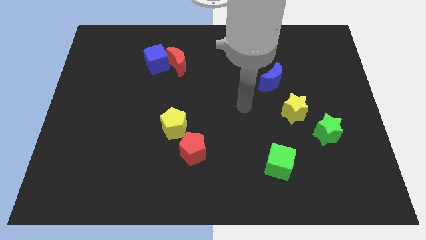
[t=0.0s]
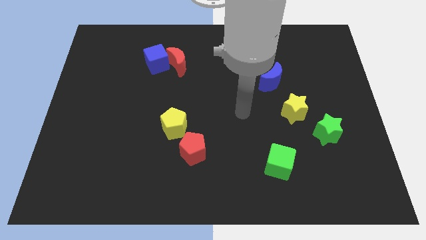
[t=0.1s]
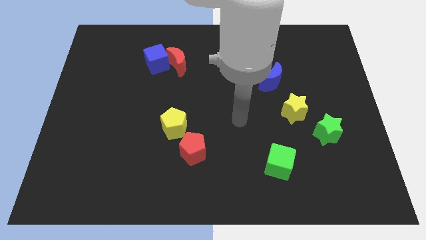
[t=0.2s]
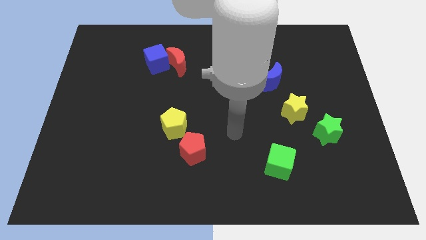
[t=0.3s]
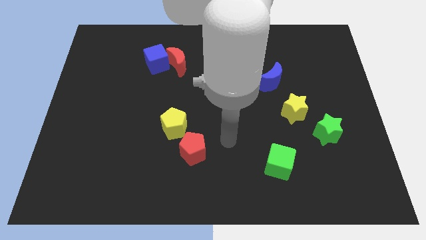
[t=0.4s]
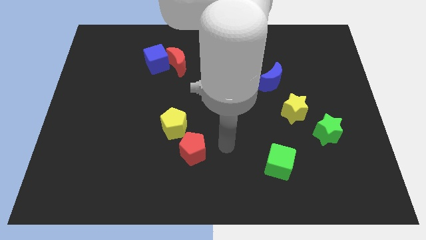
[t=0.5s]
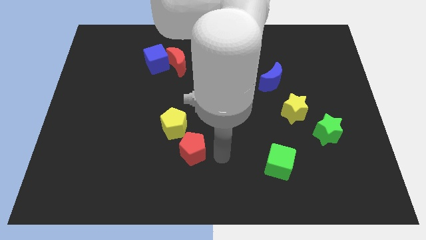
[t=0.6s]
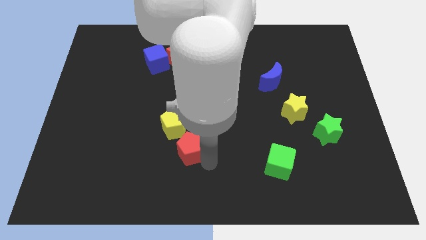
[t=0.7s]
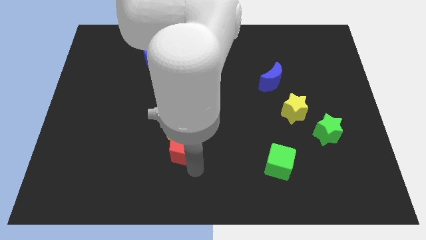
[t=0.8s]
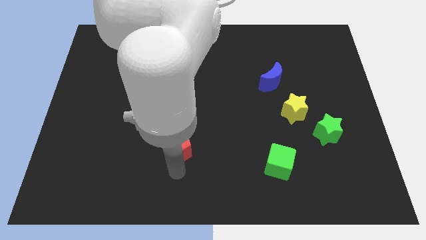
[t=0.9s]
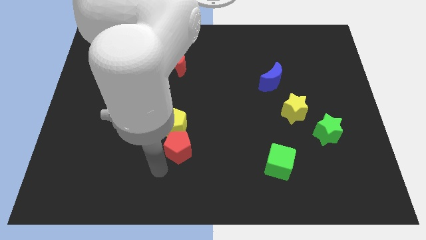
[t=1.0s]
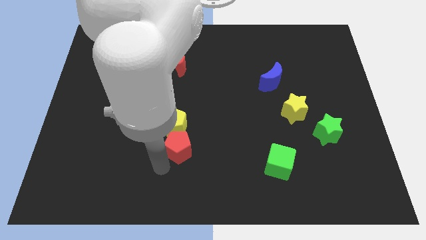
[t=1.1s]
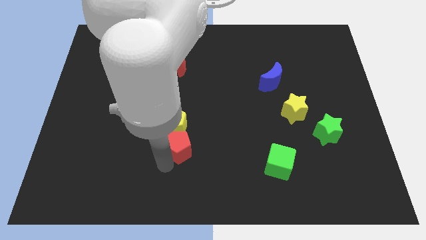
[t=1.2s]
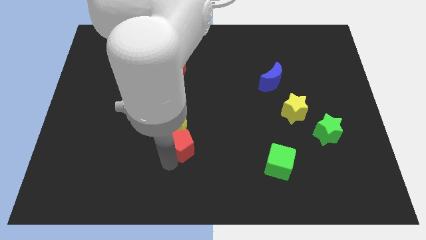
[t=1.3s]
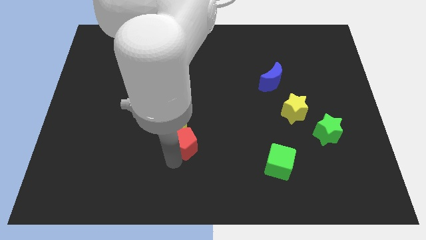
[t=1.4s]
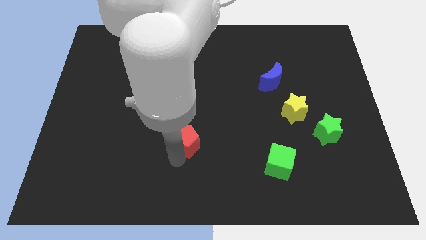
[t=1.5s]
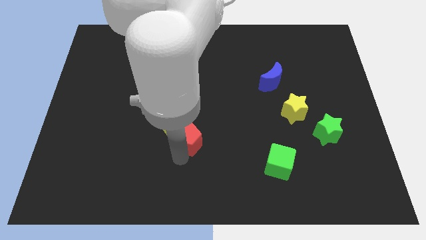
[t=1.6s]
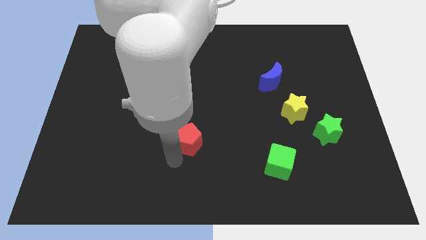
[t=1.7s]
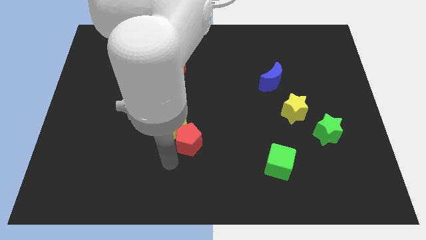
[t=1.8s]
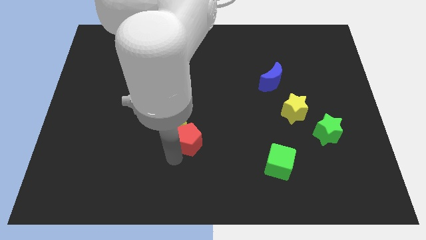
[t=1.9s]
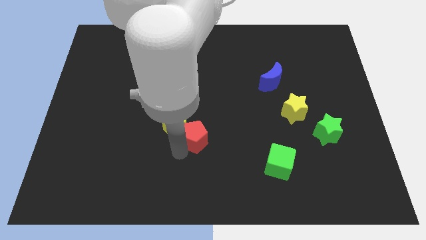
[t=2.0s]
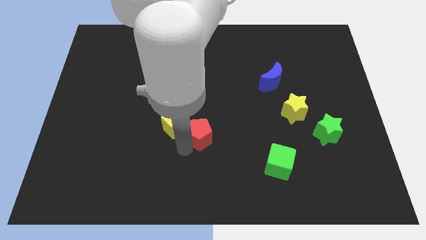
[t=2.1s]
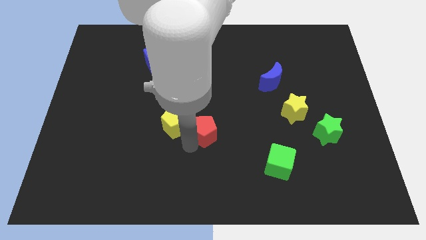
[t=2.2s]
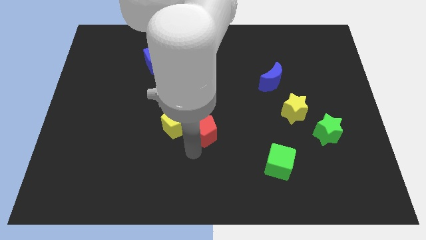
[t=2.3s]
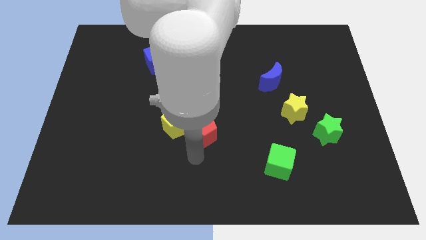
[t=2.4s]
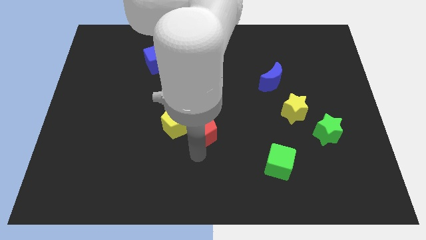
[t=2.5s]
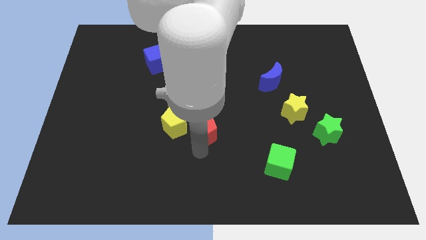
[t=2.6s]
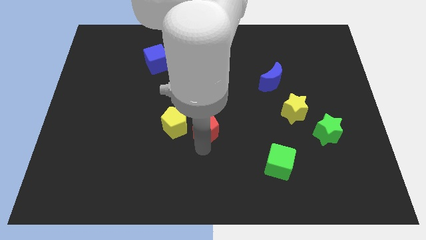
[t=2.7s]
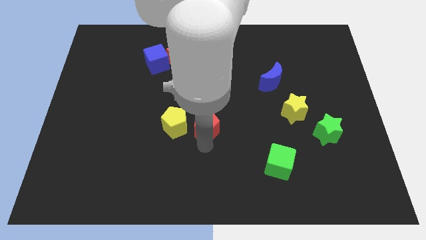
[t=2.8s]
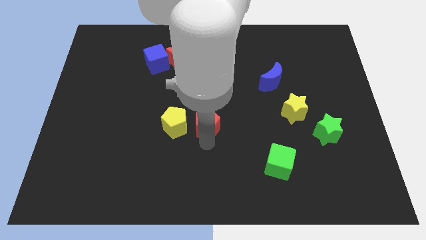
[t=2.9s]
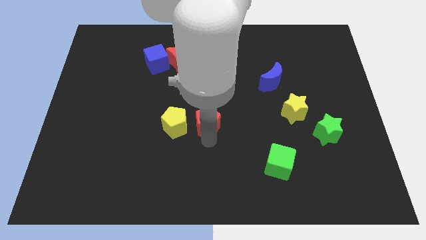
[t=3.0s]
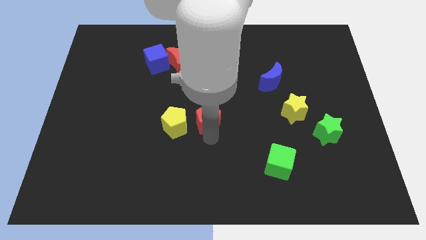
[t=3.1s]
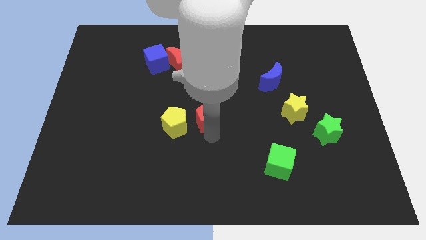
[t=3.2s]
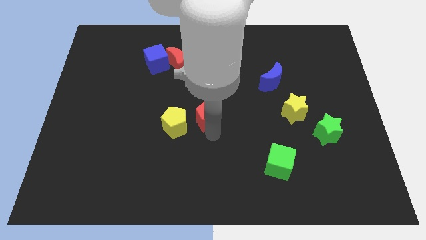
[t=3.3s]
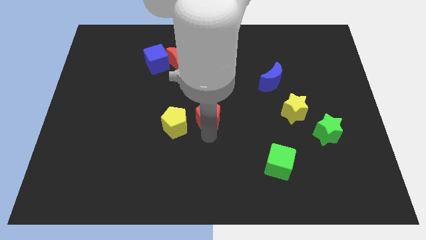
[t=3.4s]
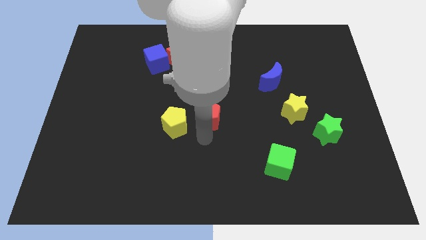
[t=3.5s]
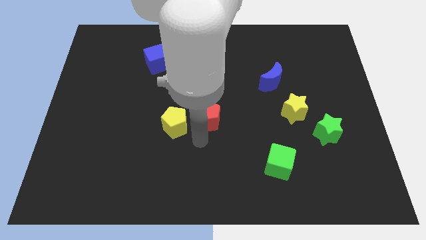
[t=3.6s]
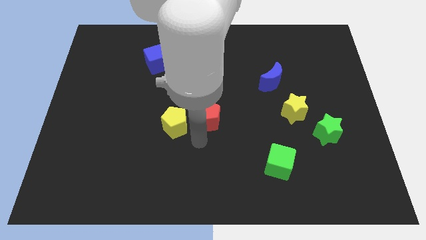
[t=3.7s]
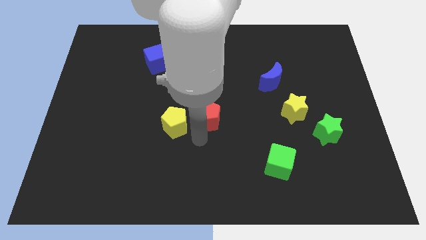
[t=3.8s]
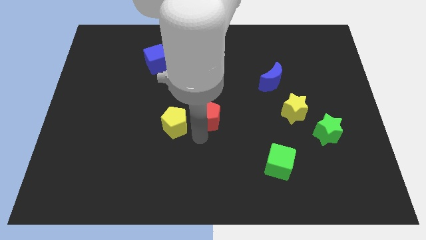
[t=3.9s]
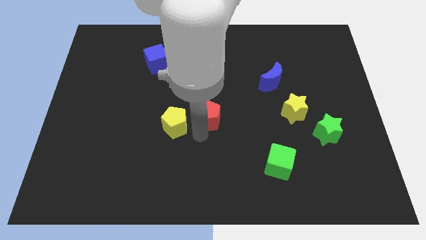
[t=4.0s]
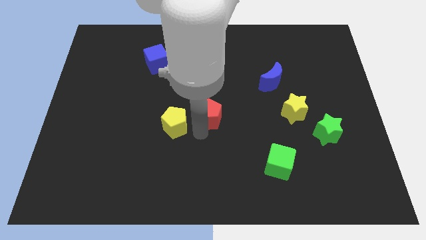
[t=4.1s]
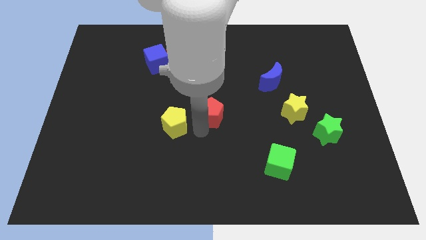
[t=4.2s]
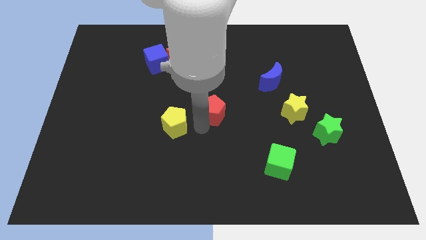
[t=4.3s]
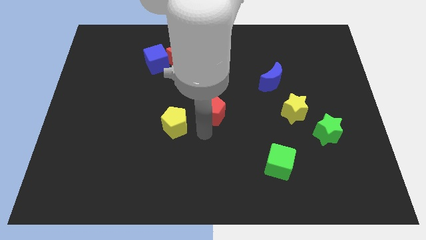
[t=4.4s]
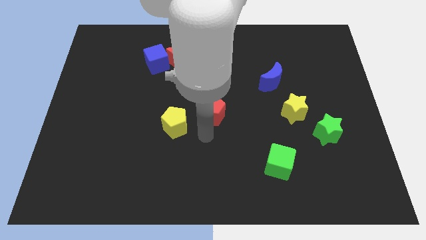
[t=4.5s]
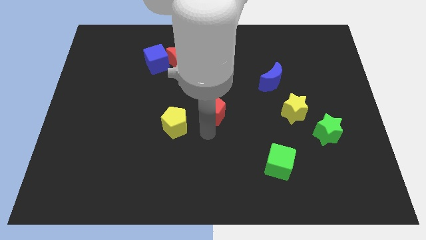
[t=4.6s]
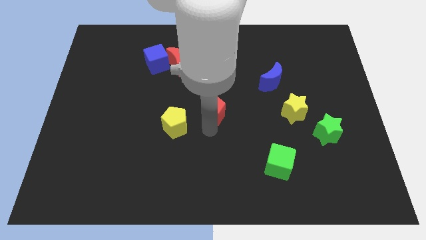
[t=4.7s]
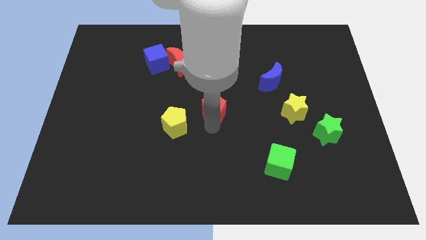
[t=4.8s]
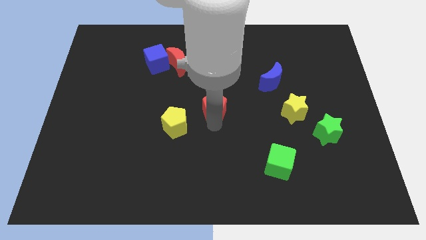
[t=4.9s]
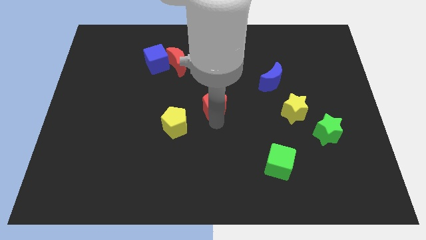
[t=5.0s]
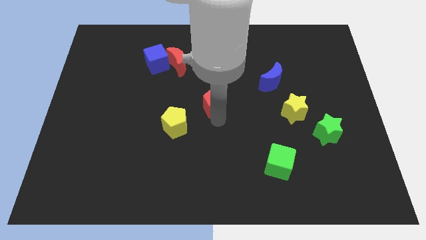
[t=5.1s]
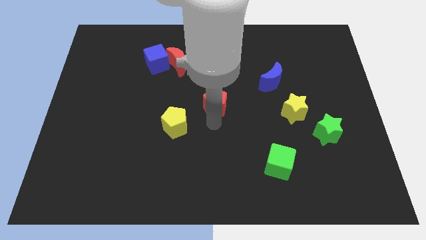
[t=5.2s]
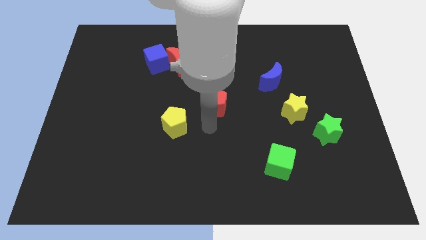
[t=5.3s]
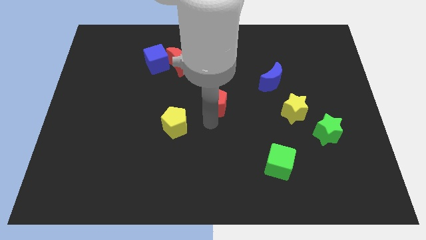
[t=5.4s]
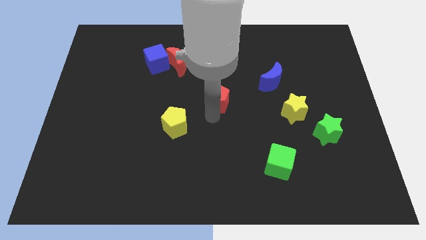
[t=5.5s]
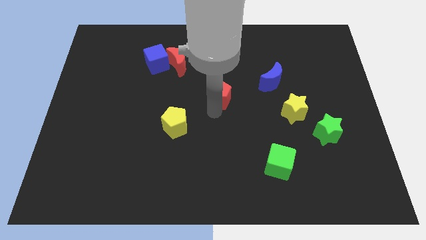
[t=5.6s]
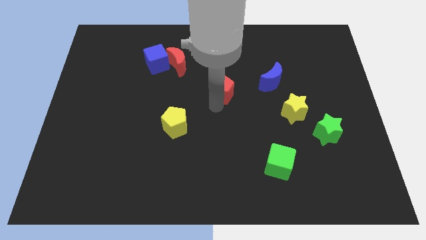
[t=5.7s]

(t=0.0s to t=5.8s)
push the red pentagon left of the blue moon

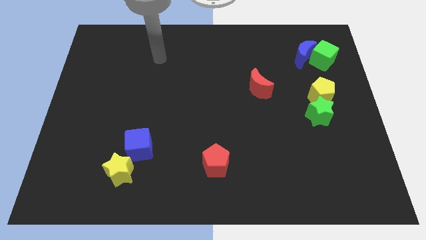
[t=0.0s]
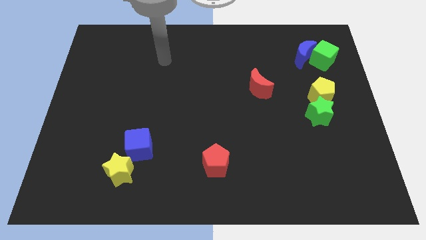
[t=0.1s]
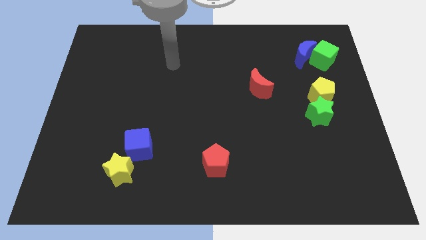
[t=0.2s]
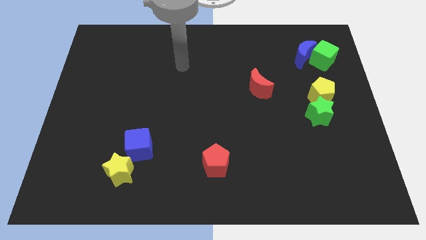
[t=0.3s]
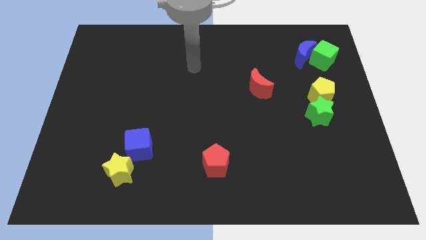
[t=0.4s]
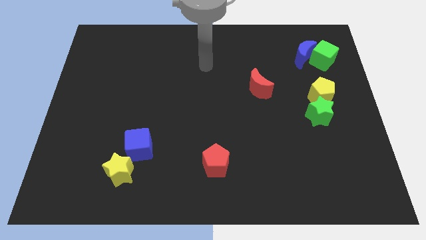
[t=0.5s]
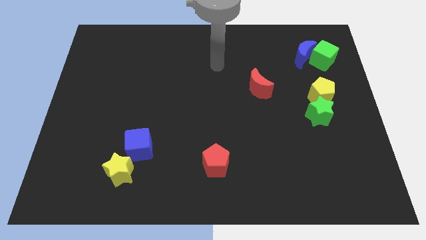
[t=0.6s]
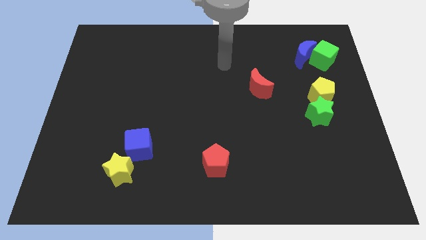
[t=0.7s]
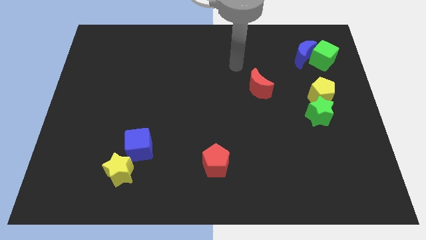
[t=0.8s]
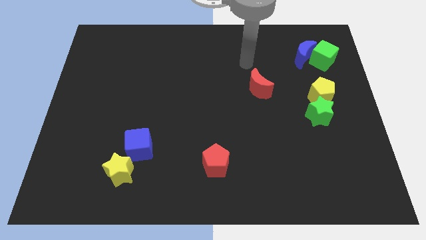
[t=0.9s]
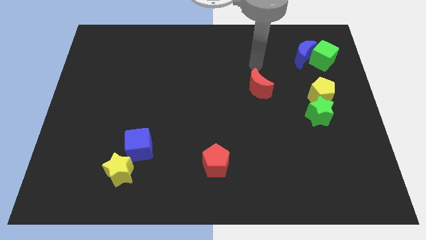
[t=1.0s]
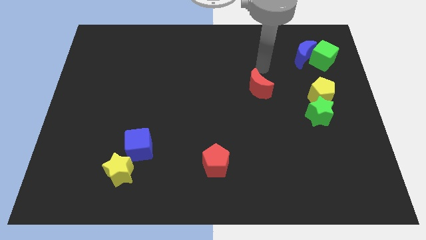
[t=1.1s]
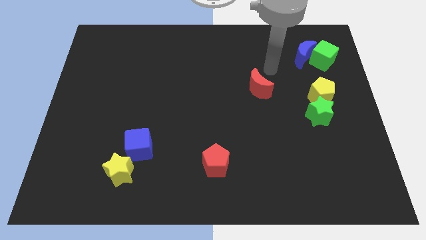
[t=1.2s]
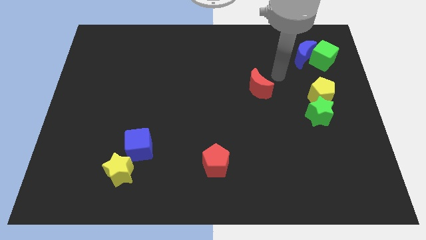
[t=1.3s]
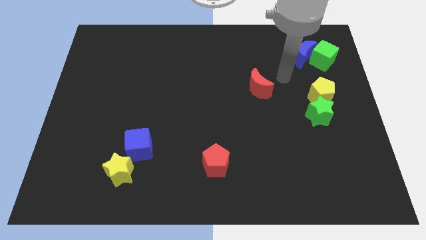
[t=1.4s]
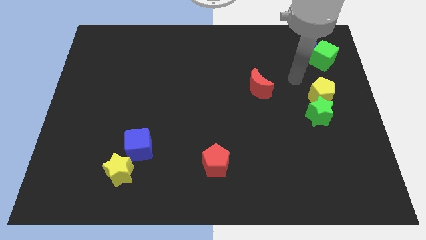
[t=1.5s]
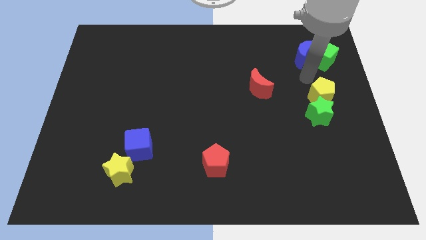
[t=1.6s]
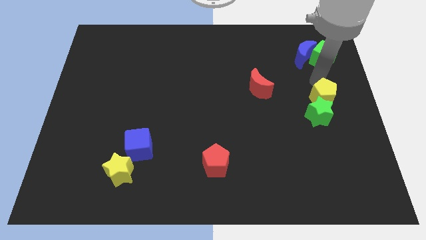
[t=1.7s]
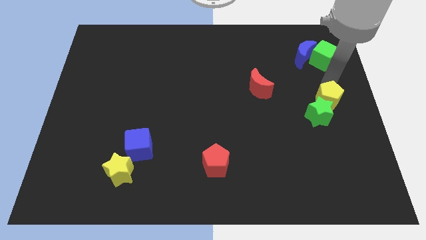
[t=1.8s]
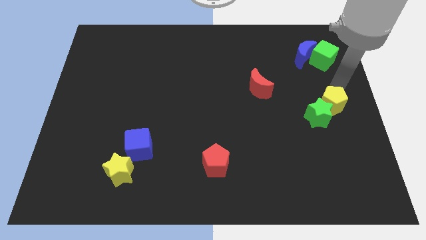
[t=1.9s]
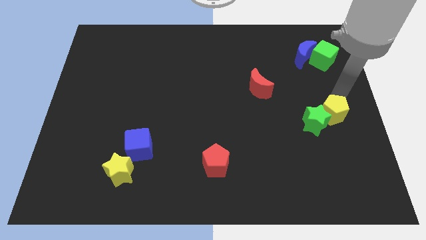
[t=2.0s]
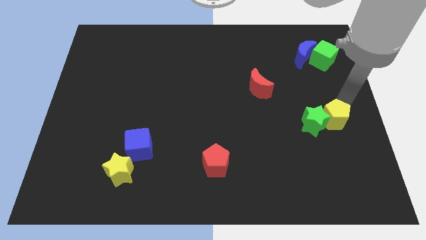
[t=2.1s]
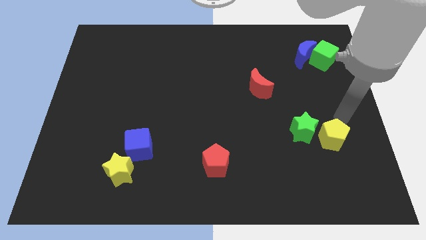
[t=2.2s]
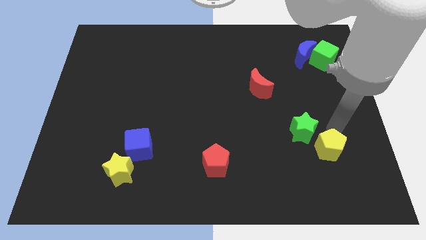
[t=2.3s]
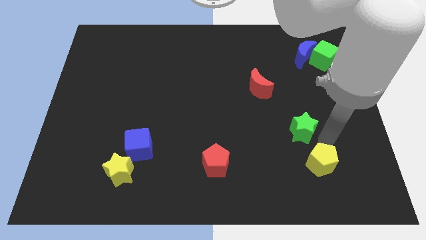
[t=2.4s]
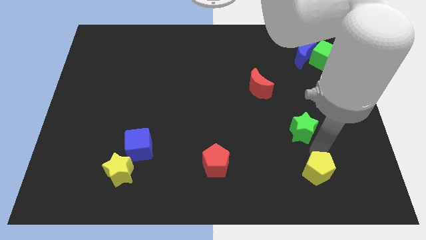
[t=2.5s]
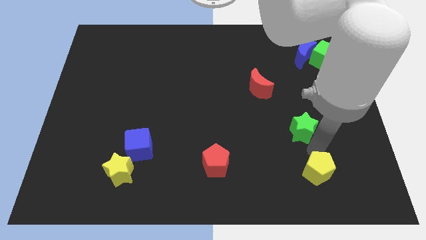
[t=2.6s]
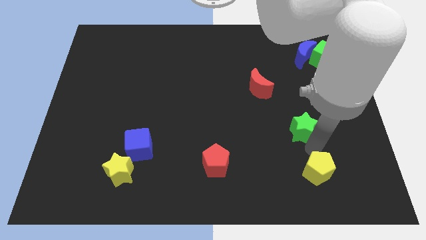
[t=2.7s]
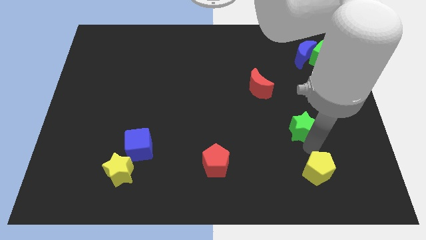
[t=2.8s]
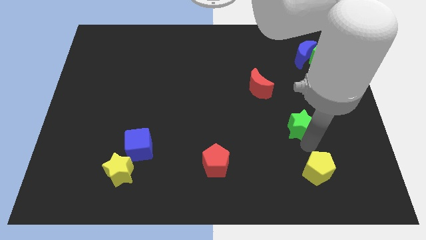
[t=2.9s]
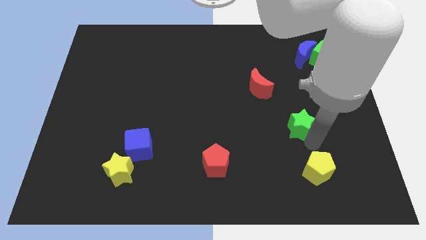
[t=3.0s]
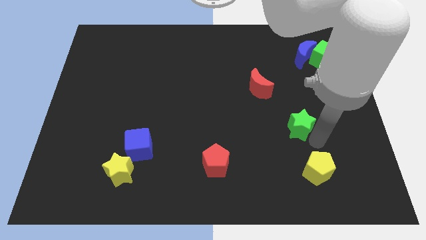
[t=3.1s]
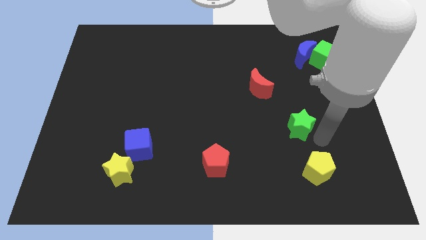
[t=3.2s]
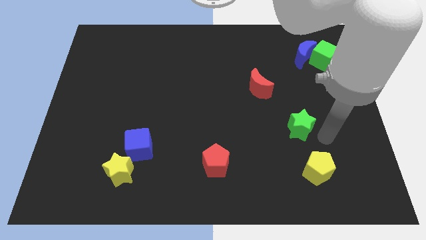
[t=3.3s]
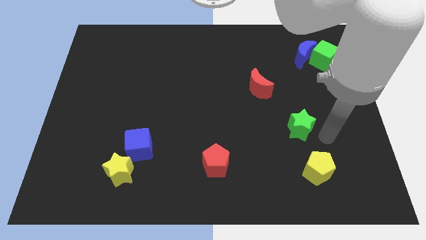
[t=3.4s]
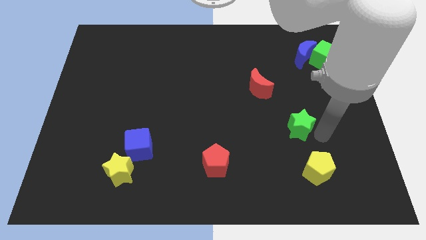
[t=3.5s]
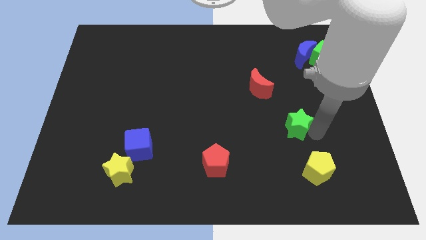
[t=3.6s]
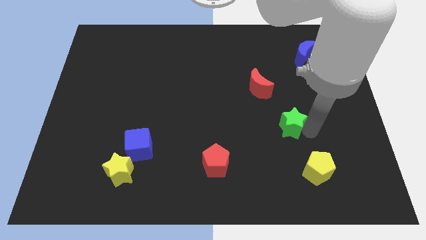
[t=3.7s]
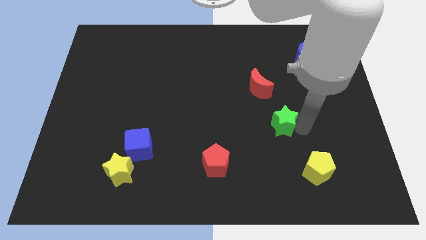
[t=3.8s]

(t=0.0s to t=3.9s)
push the green star to the bottom side of the red moon
